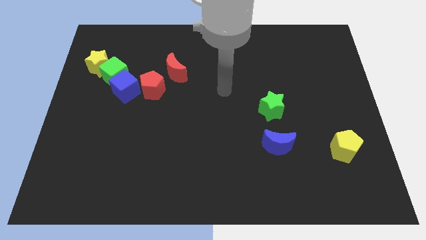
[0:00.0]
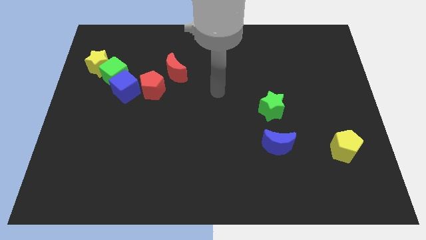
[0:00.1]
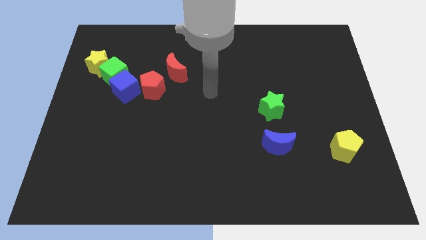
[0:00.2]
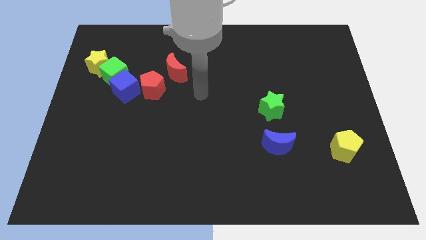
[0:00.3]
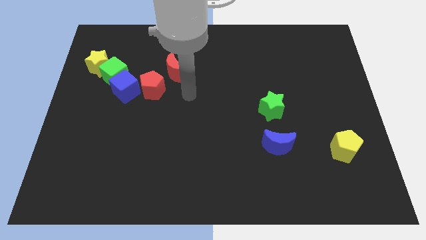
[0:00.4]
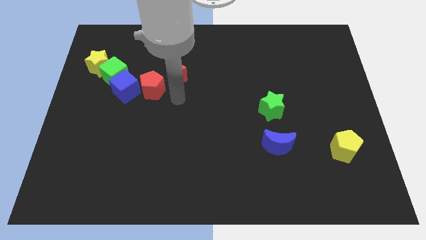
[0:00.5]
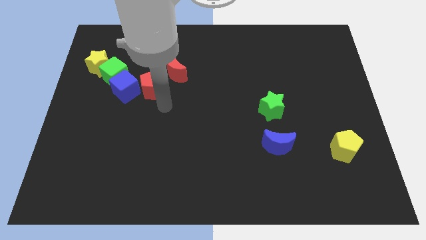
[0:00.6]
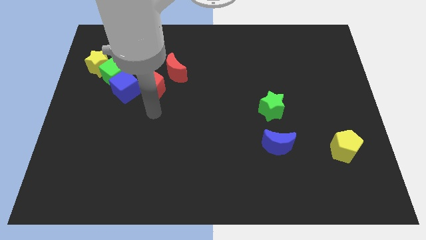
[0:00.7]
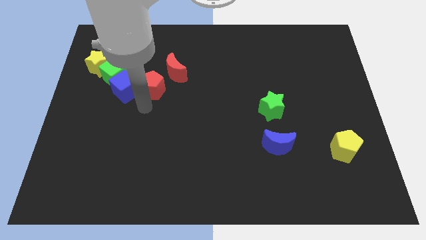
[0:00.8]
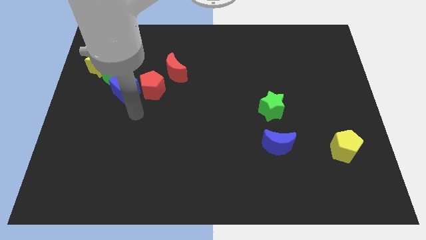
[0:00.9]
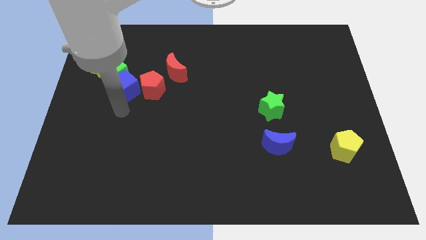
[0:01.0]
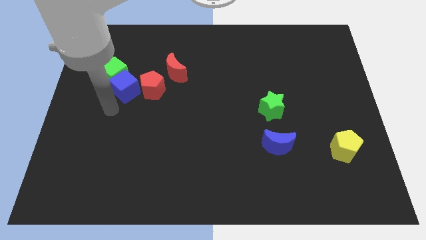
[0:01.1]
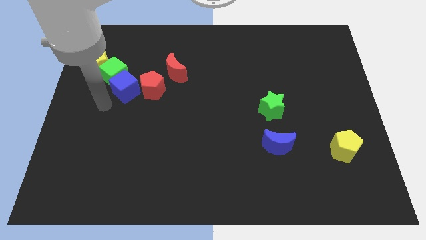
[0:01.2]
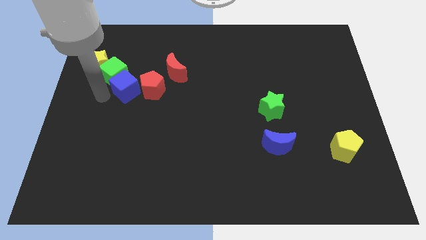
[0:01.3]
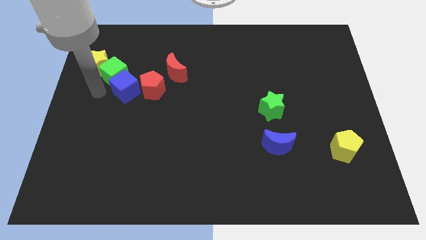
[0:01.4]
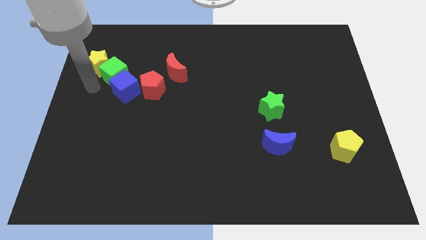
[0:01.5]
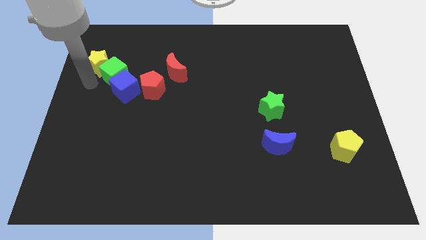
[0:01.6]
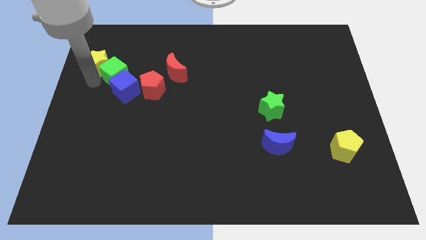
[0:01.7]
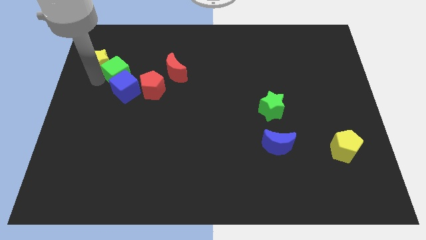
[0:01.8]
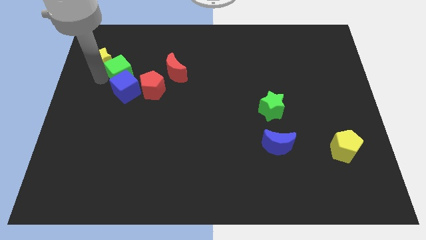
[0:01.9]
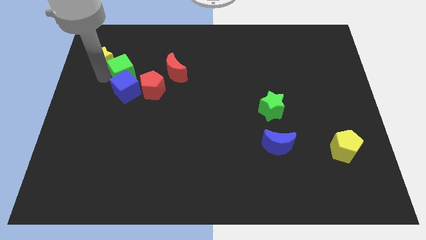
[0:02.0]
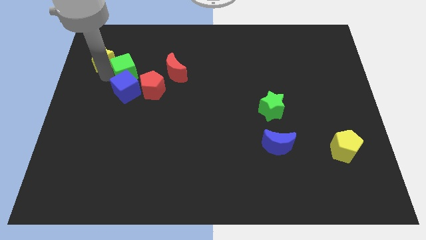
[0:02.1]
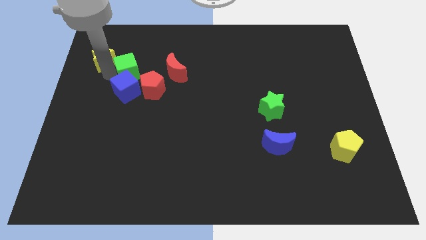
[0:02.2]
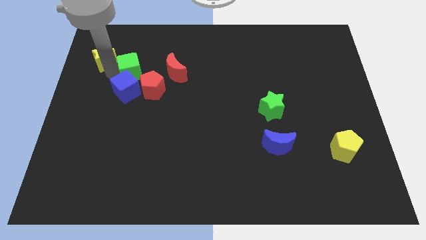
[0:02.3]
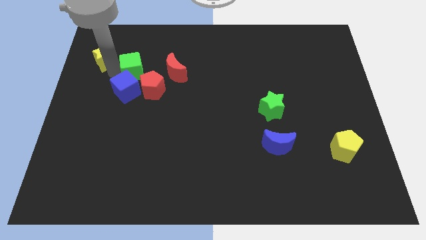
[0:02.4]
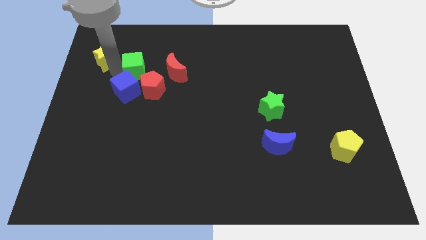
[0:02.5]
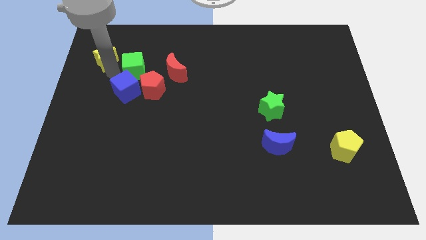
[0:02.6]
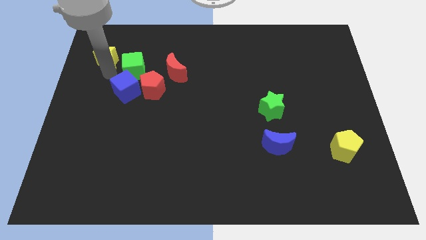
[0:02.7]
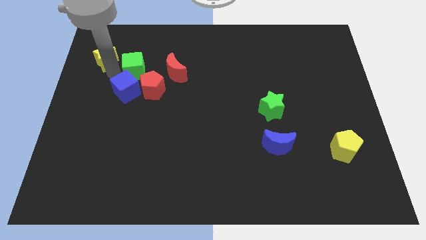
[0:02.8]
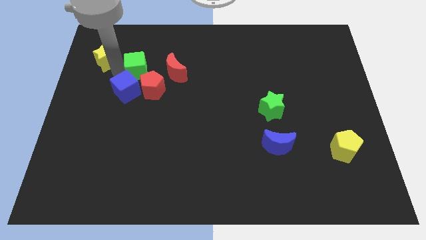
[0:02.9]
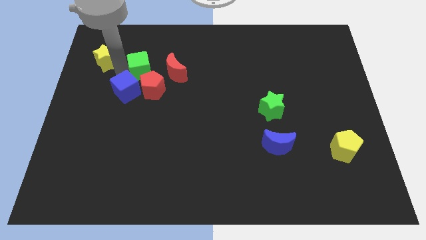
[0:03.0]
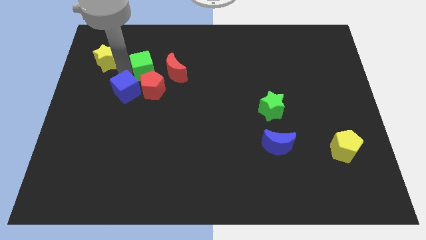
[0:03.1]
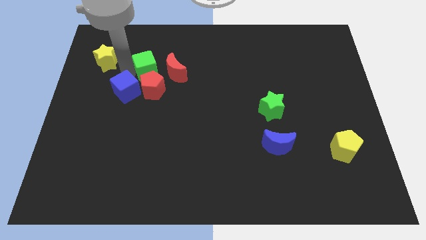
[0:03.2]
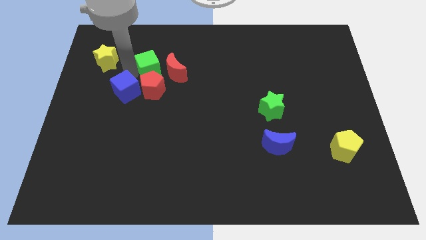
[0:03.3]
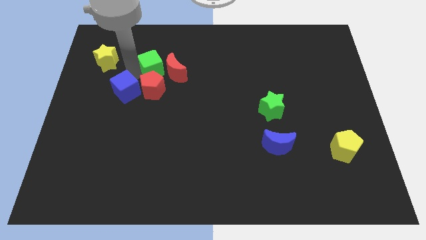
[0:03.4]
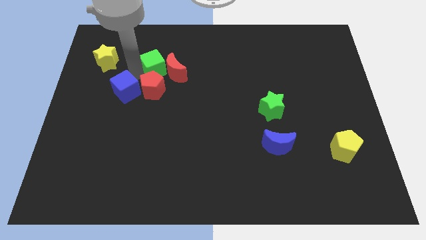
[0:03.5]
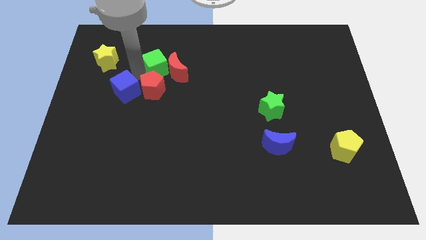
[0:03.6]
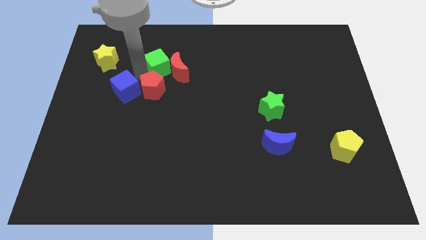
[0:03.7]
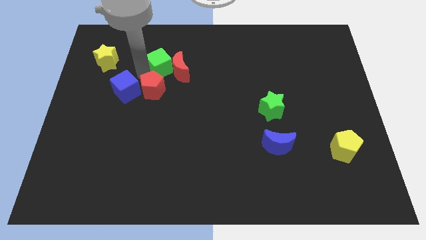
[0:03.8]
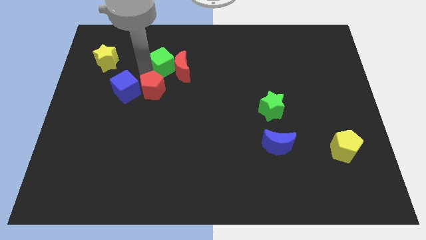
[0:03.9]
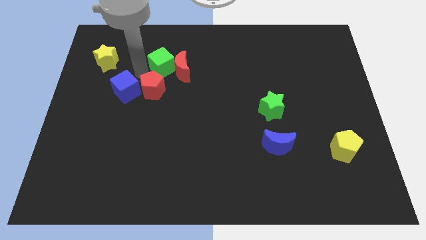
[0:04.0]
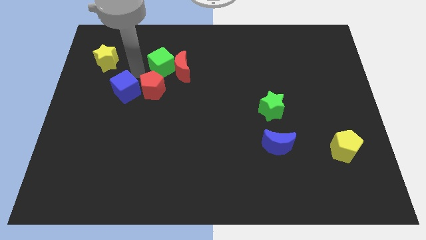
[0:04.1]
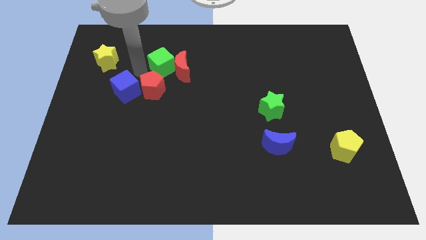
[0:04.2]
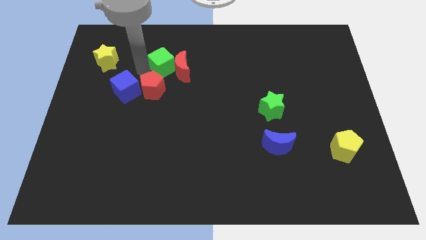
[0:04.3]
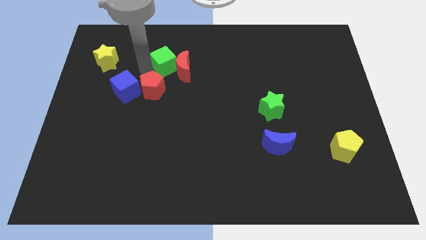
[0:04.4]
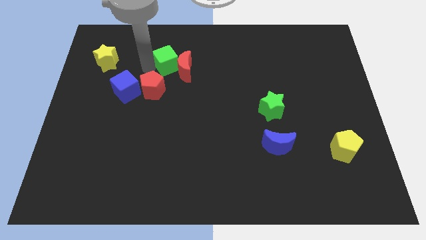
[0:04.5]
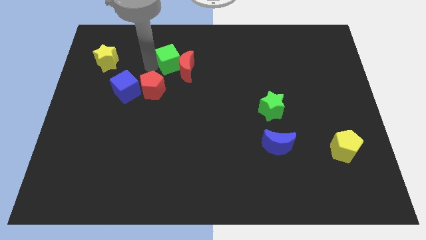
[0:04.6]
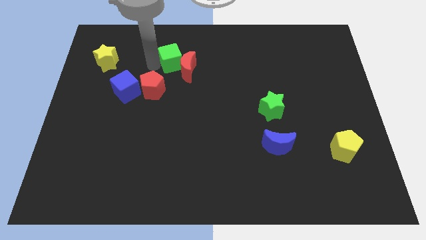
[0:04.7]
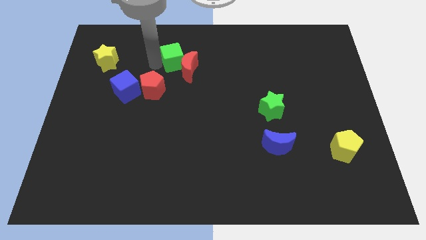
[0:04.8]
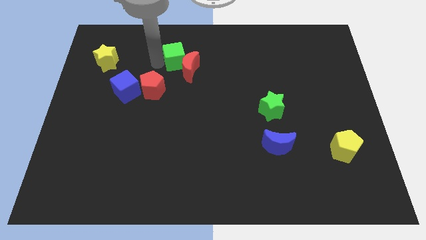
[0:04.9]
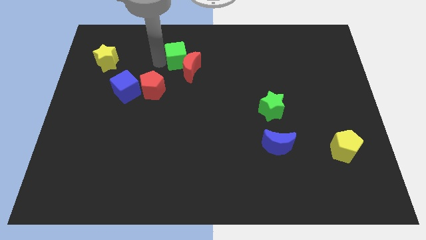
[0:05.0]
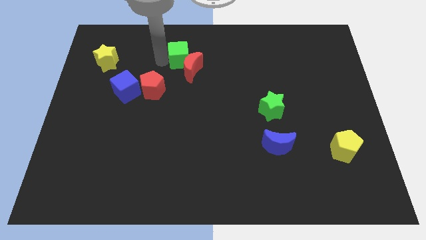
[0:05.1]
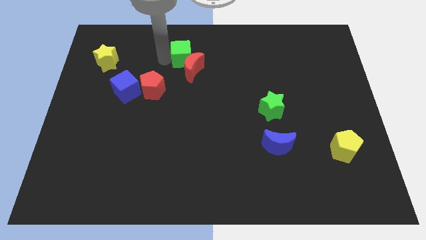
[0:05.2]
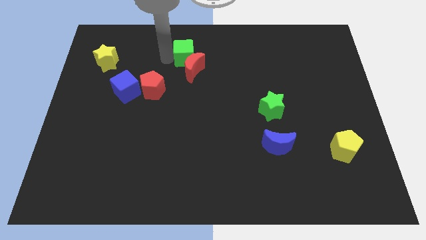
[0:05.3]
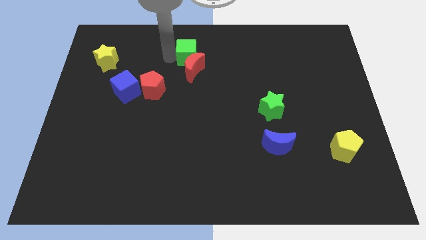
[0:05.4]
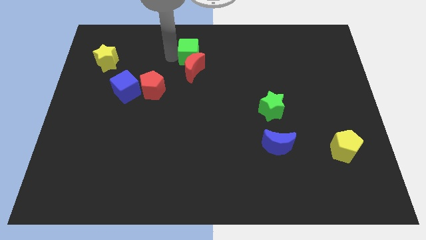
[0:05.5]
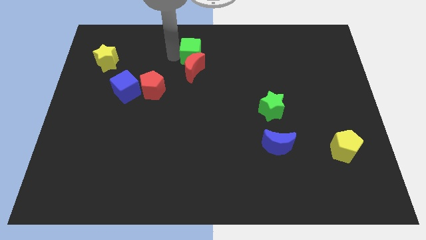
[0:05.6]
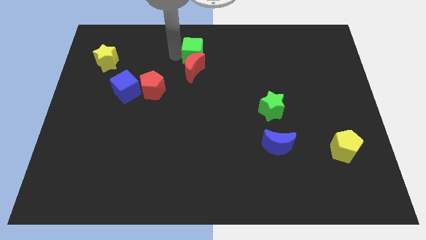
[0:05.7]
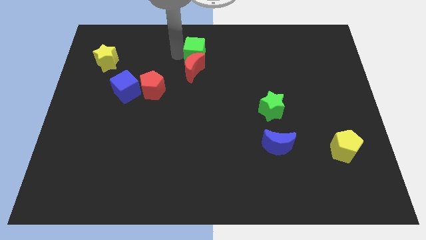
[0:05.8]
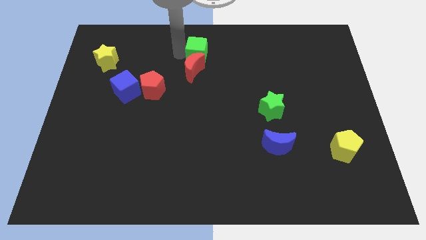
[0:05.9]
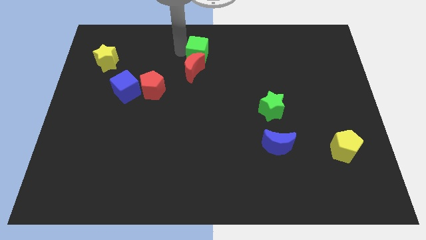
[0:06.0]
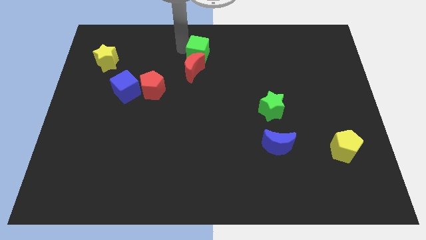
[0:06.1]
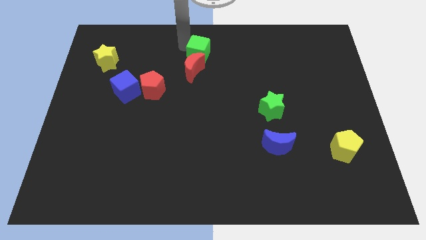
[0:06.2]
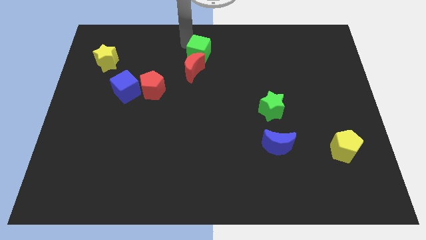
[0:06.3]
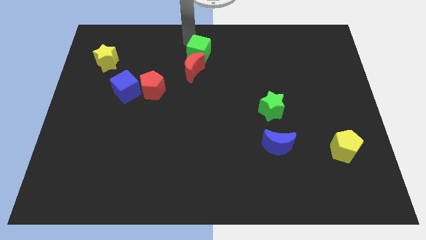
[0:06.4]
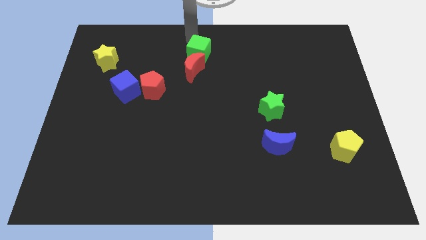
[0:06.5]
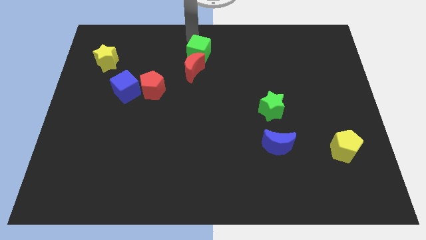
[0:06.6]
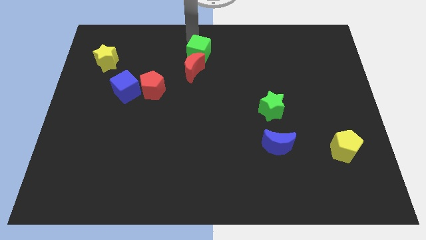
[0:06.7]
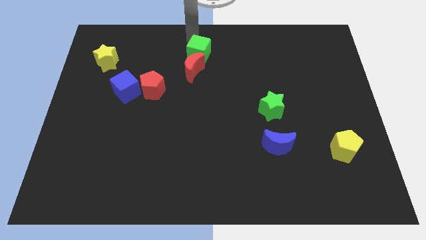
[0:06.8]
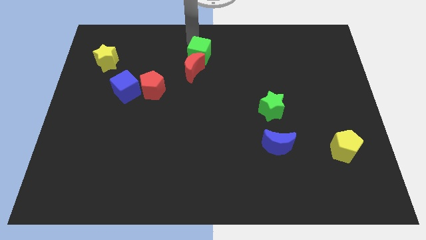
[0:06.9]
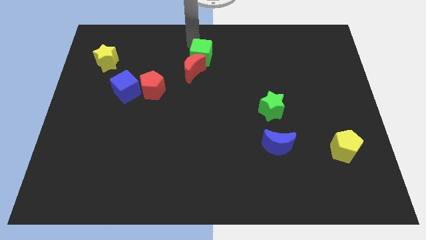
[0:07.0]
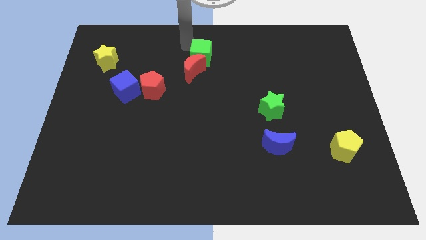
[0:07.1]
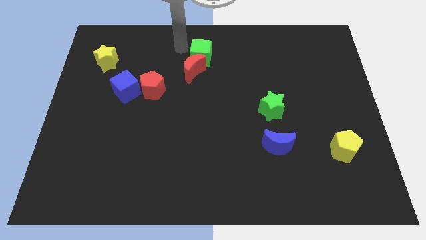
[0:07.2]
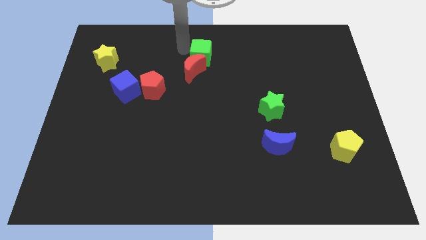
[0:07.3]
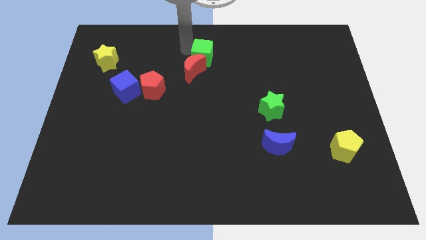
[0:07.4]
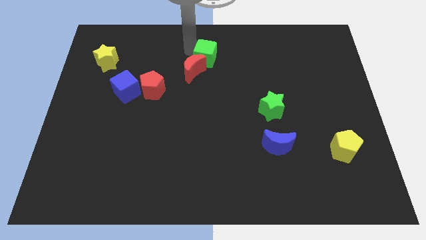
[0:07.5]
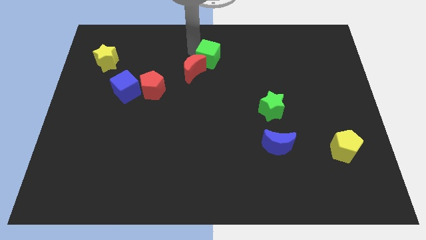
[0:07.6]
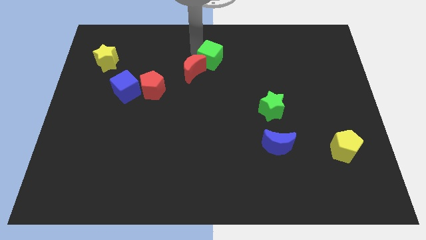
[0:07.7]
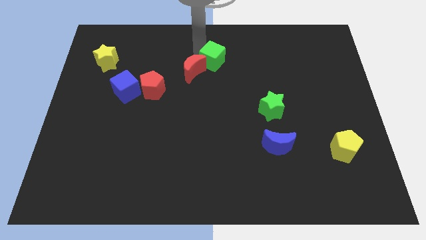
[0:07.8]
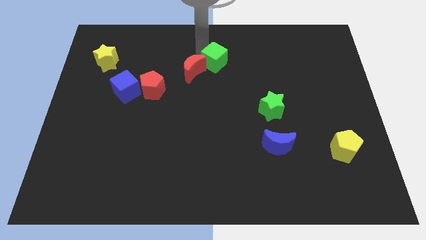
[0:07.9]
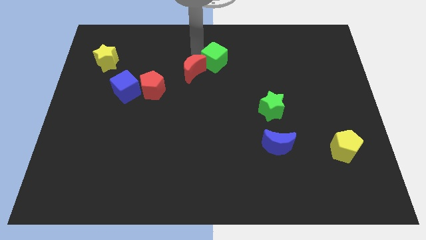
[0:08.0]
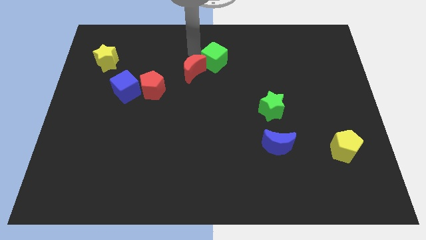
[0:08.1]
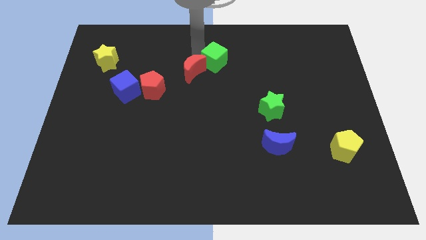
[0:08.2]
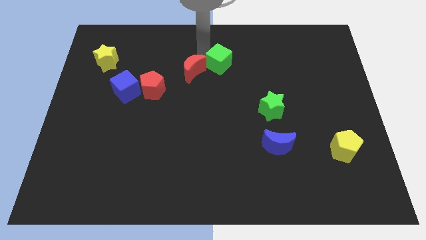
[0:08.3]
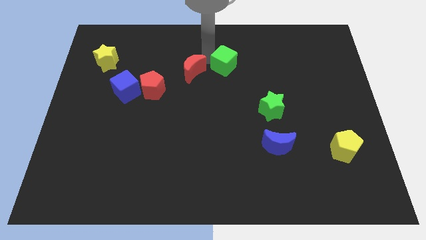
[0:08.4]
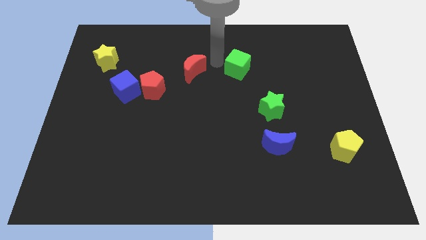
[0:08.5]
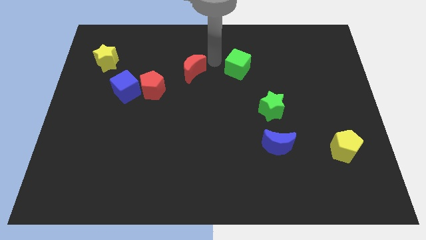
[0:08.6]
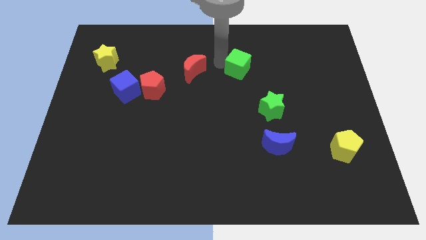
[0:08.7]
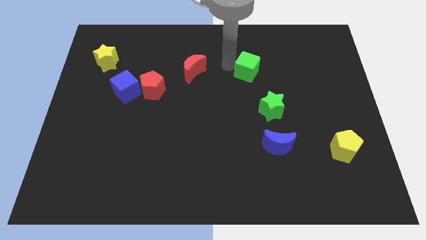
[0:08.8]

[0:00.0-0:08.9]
move the green cube to the top side of the green star
